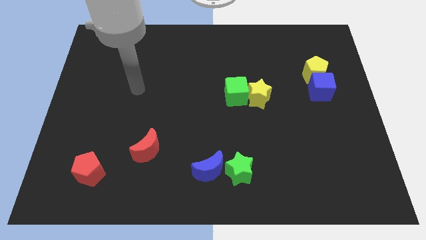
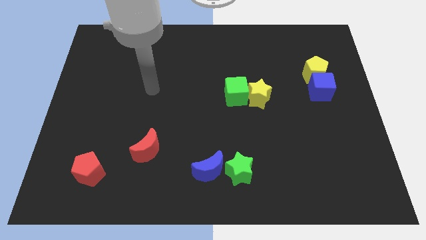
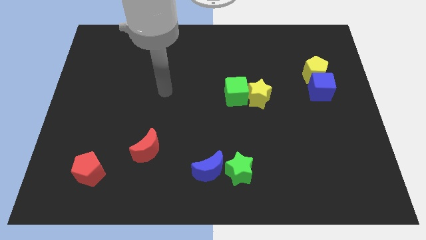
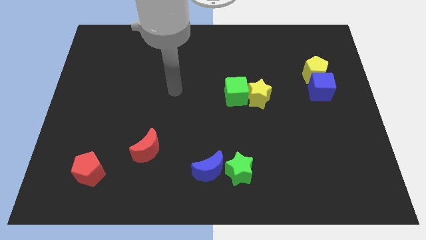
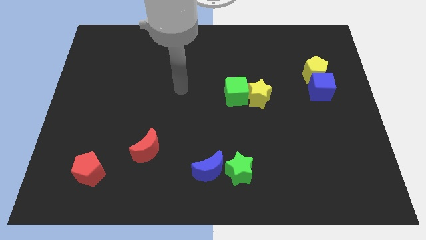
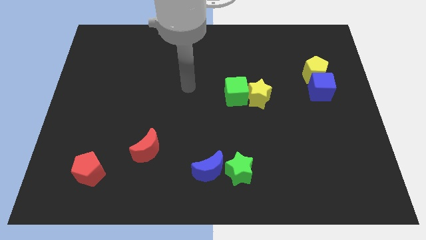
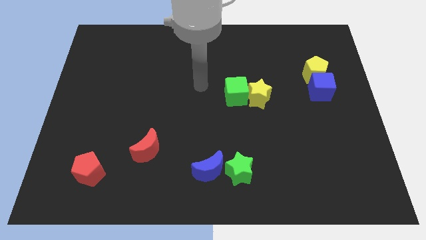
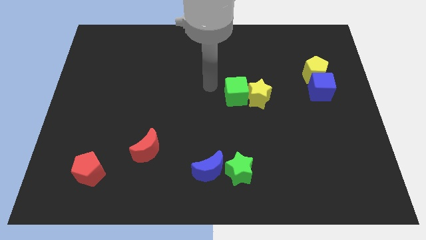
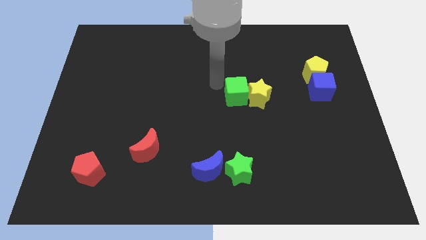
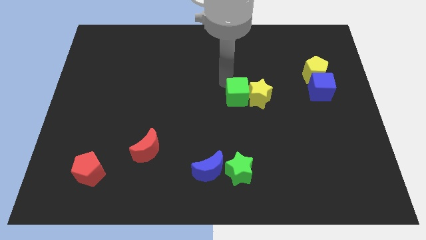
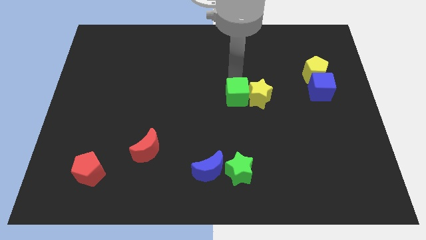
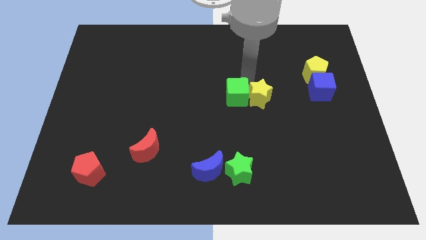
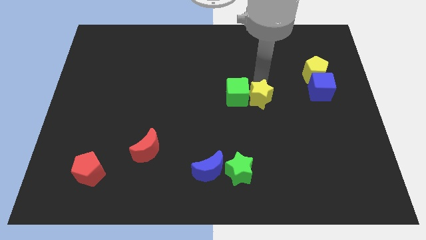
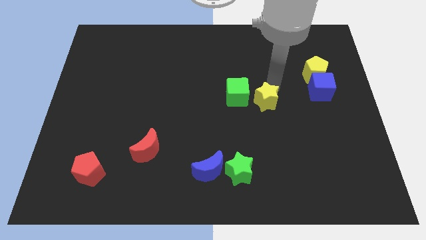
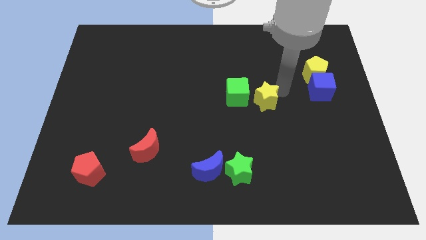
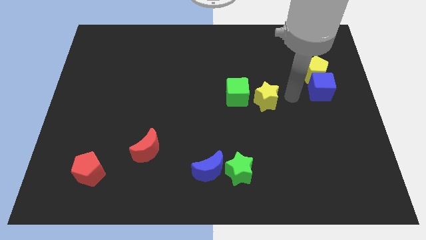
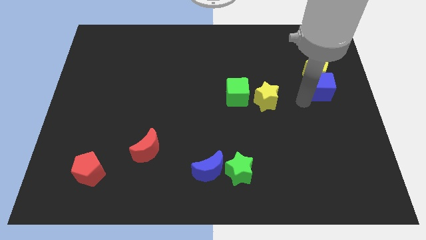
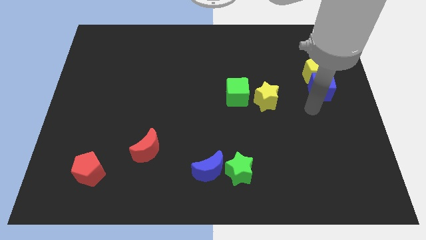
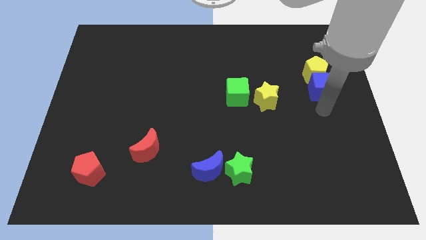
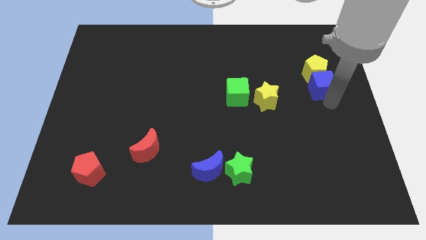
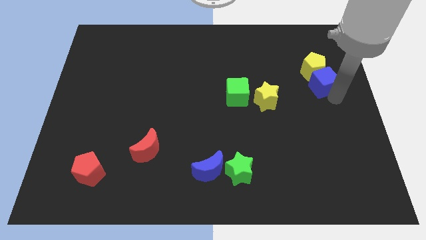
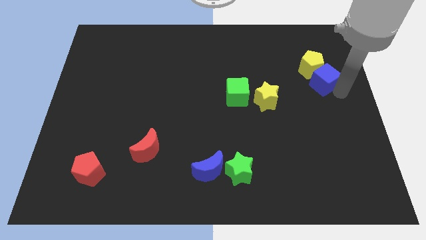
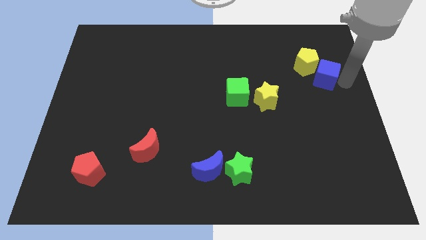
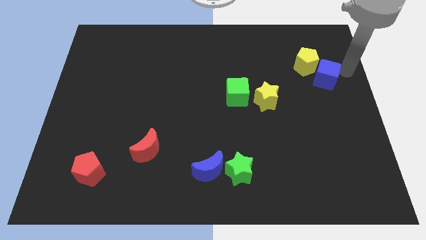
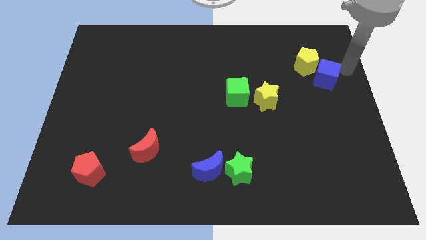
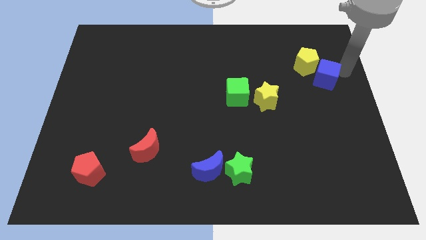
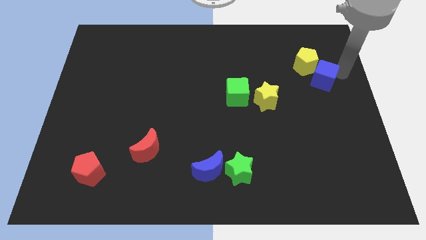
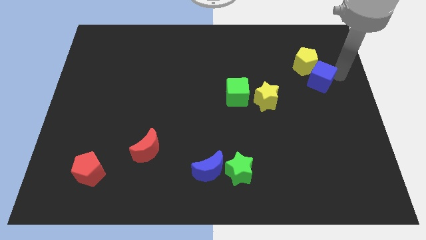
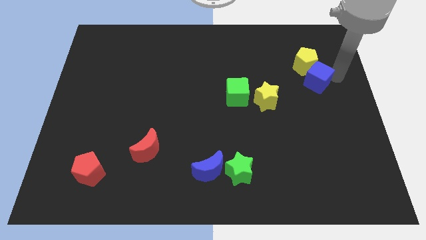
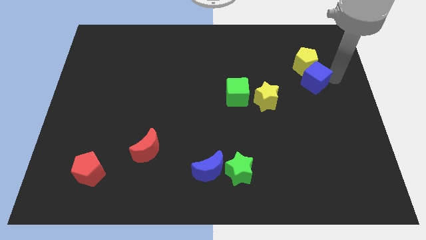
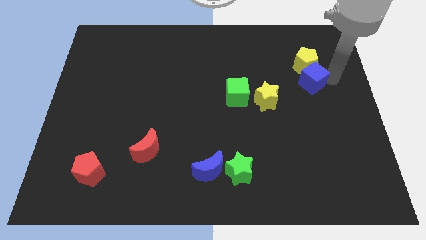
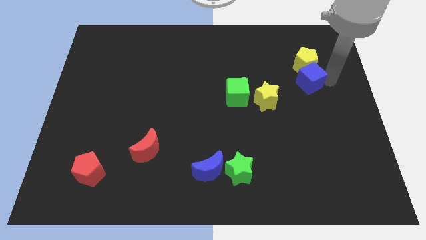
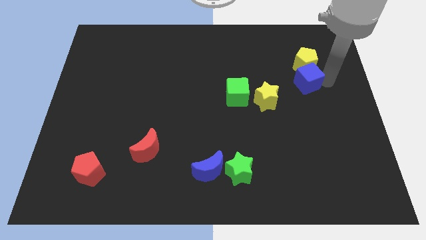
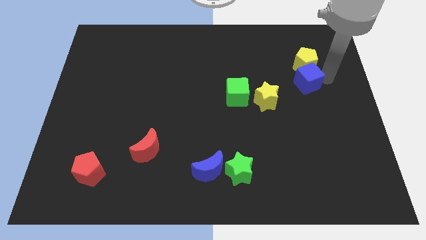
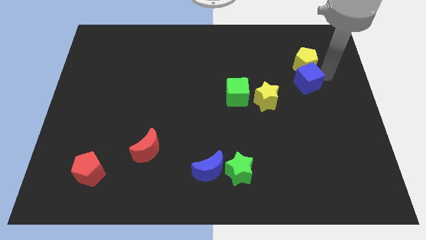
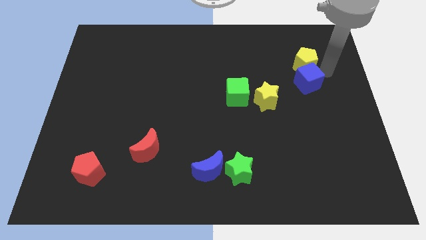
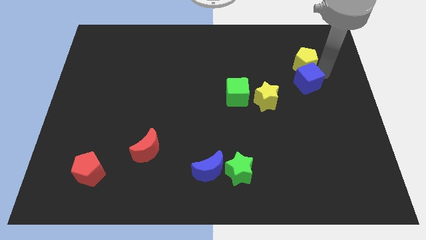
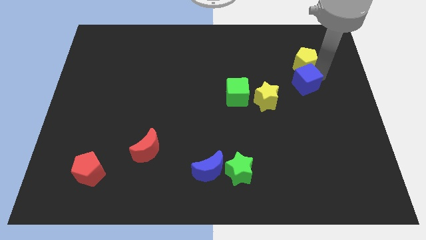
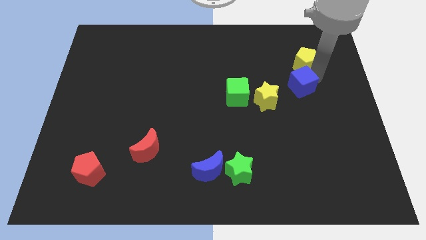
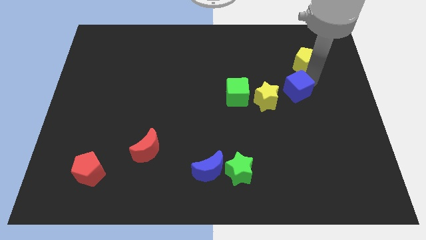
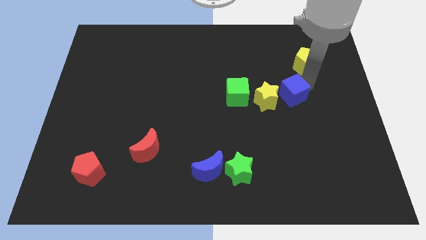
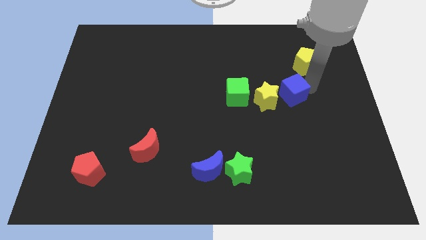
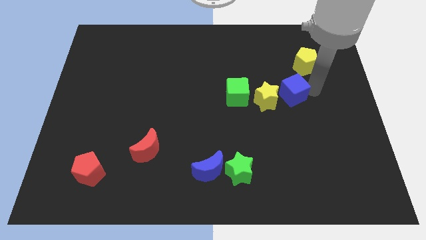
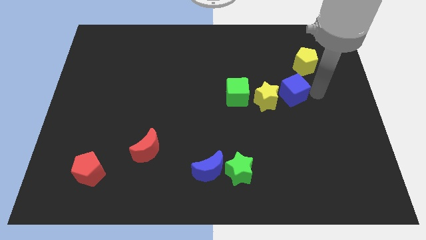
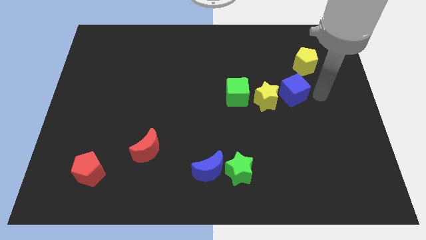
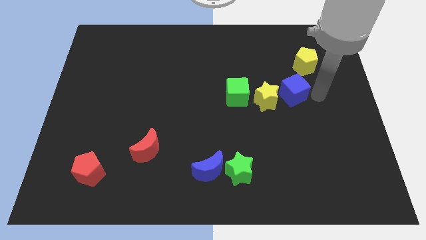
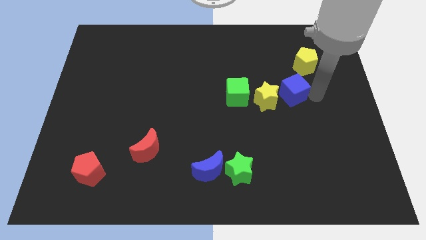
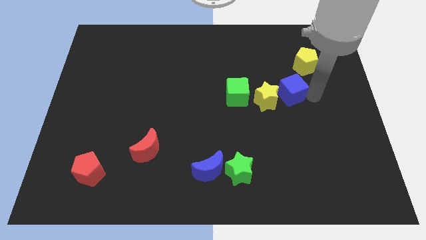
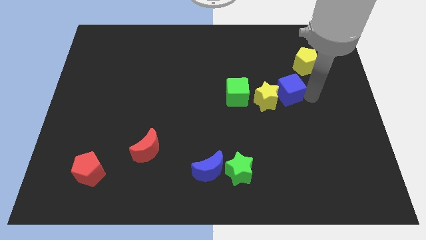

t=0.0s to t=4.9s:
push the blue cube next to the yellow star

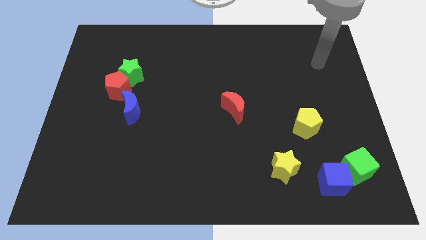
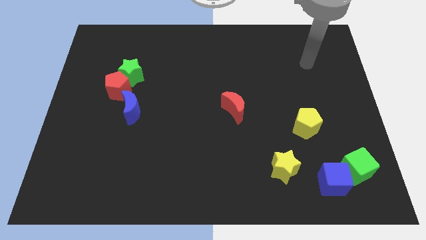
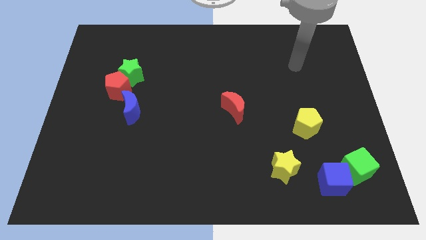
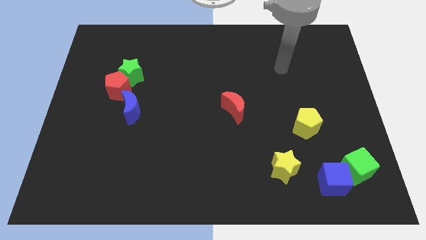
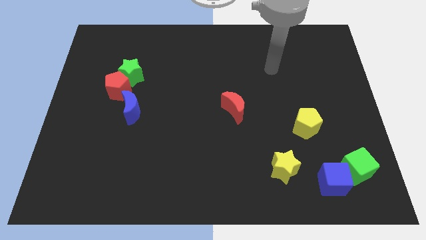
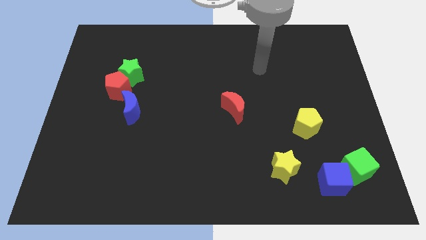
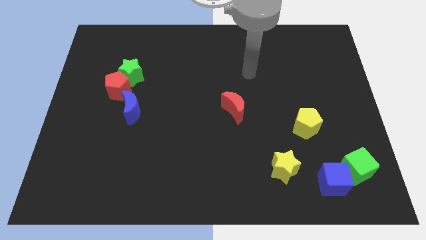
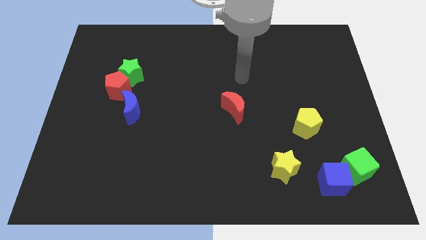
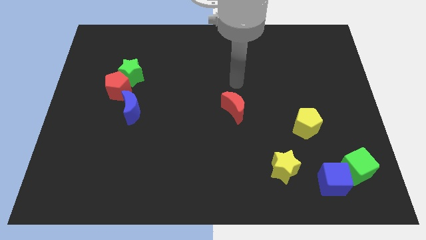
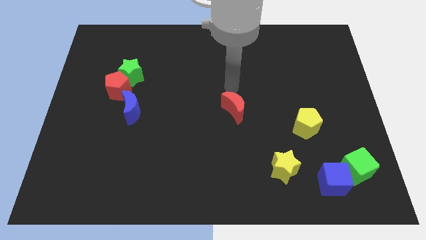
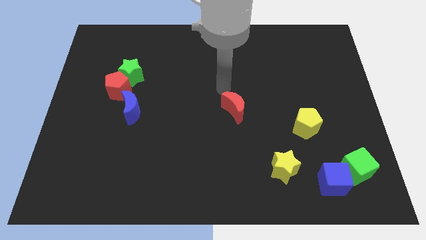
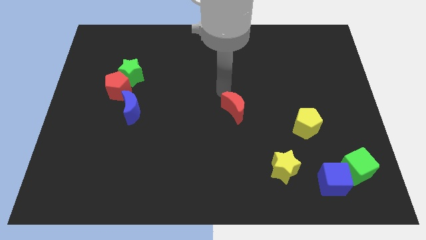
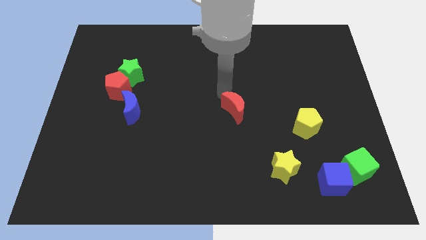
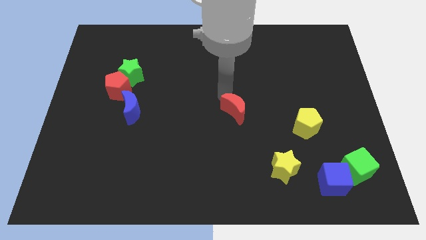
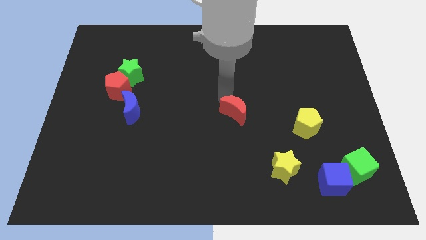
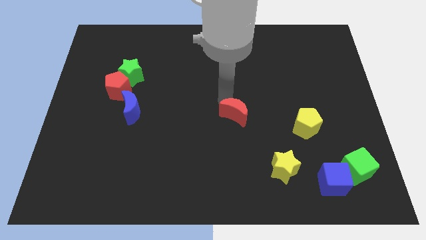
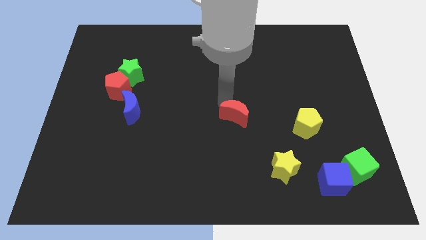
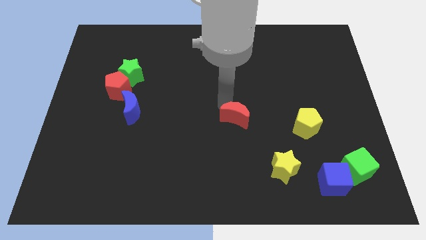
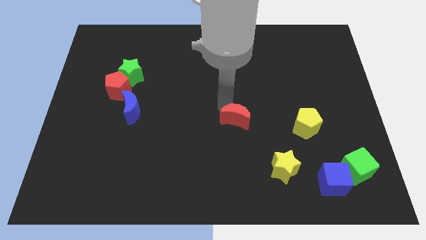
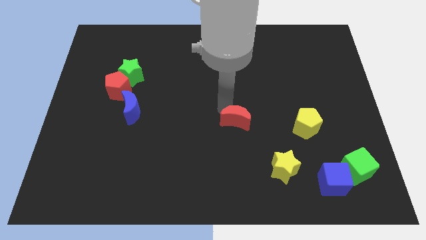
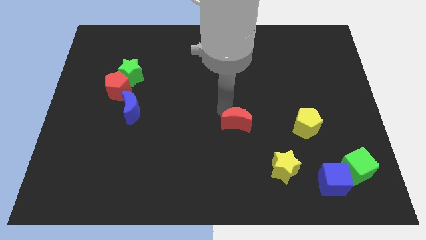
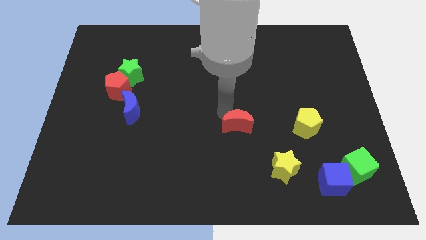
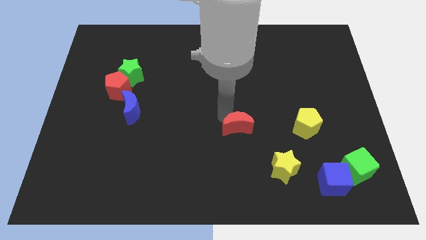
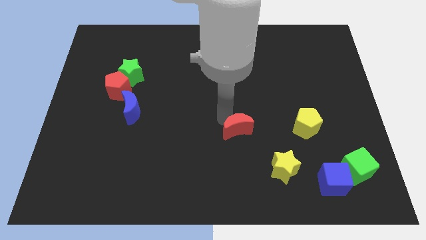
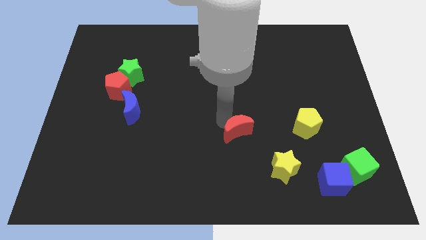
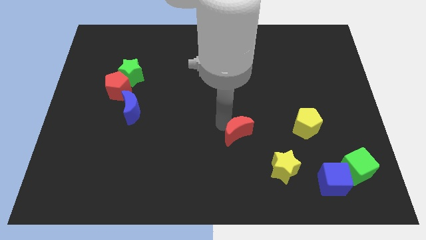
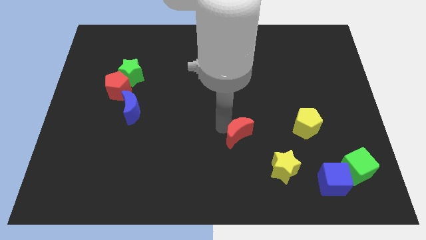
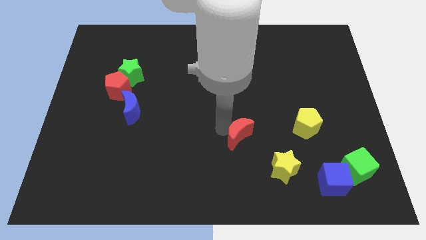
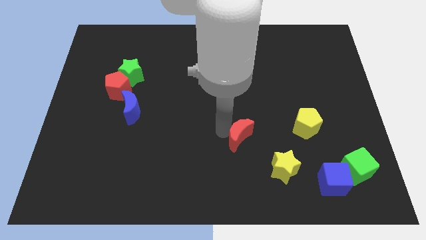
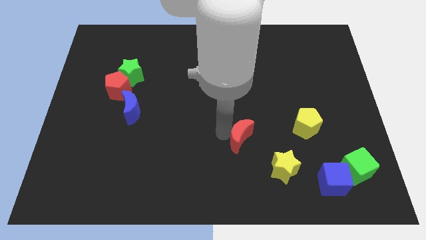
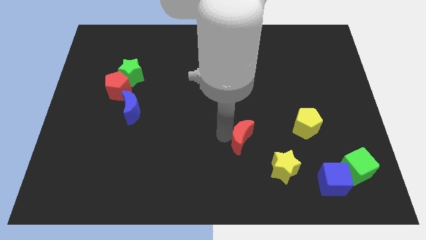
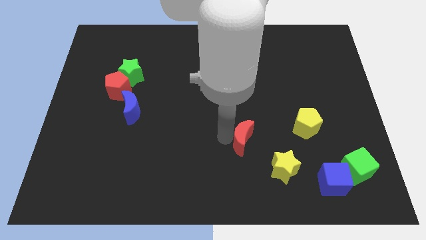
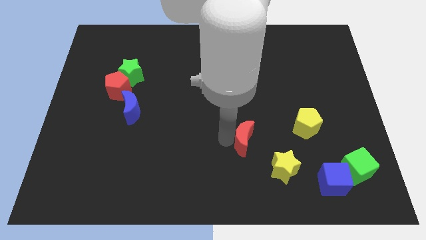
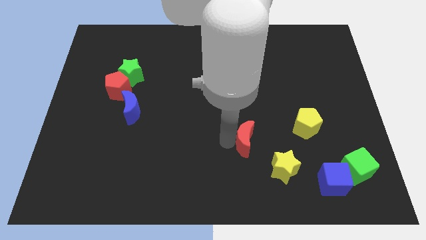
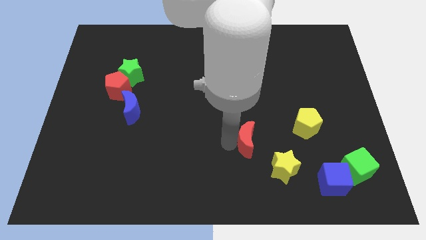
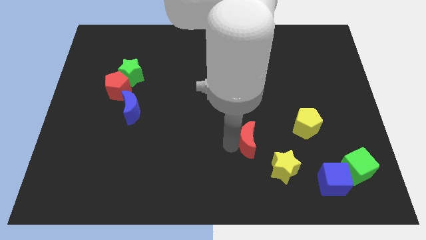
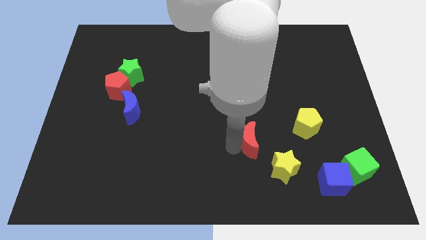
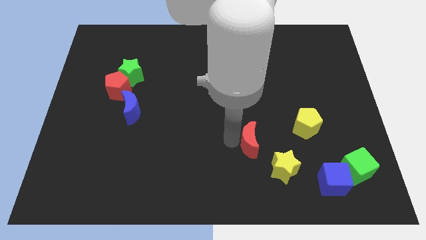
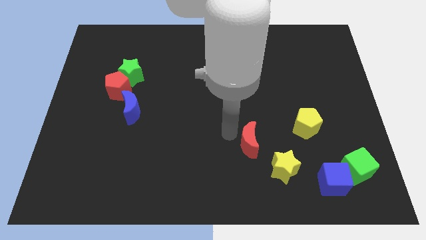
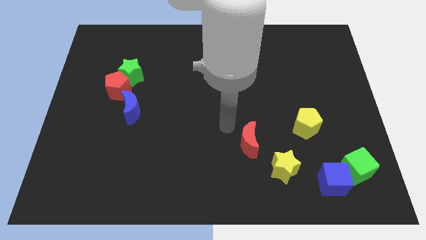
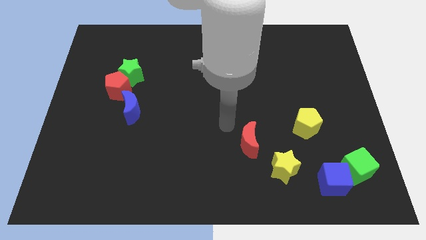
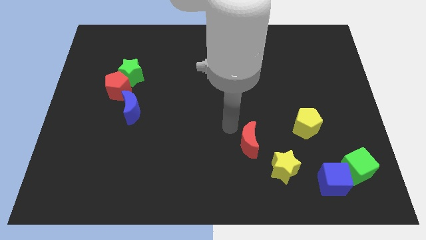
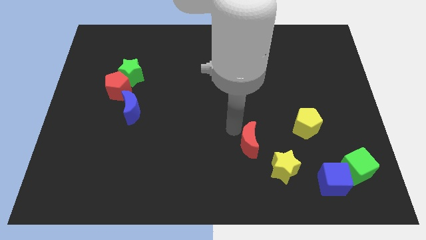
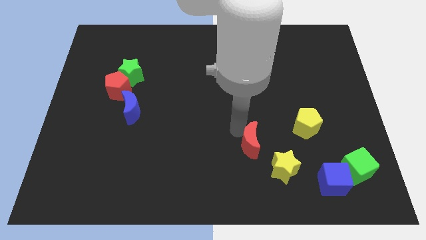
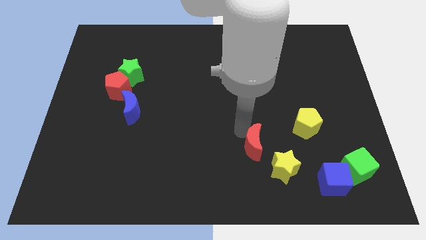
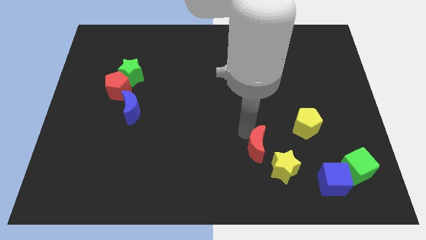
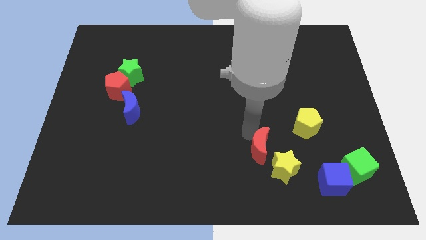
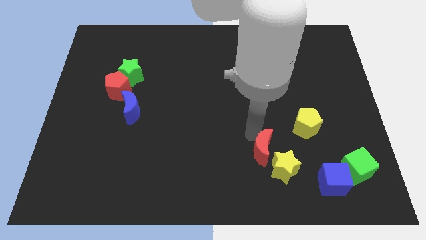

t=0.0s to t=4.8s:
put the red moon towards the yellow star
